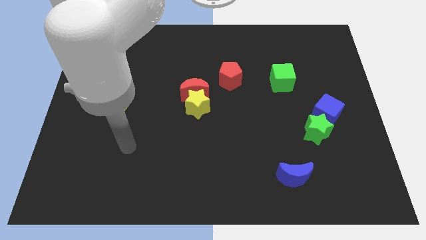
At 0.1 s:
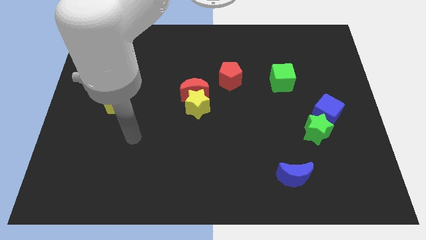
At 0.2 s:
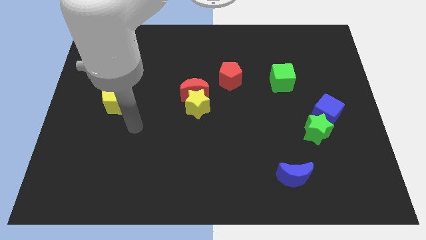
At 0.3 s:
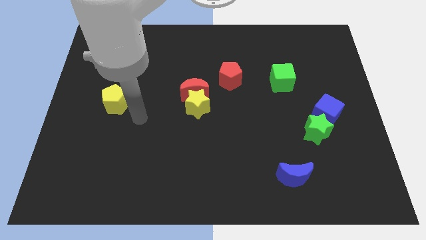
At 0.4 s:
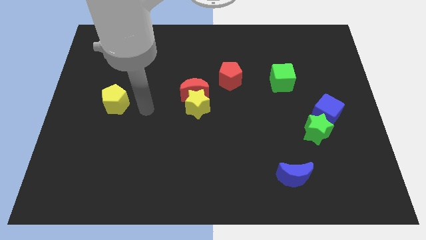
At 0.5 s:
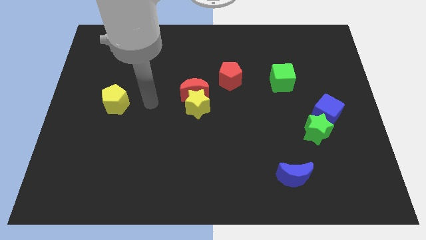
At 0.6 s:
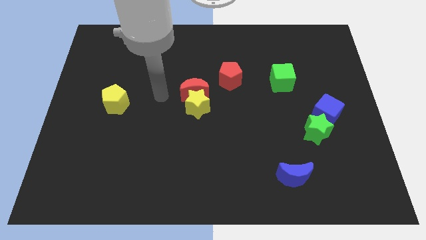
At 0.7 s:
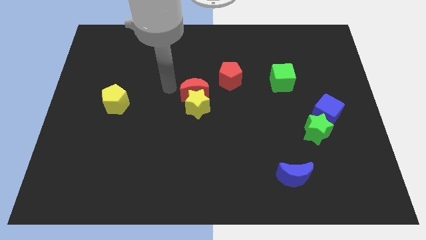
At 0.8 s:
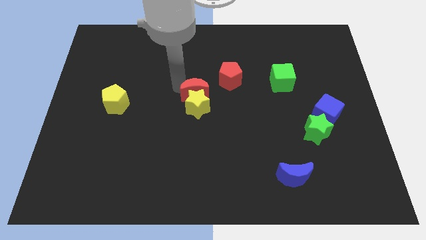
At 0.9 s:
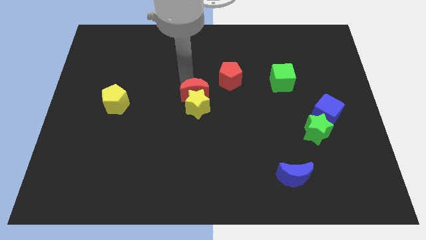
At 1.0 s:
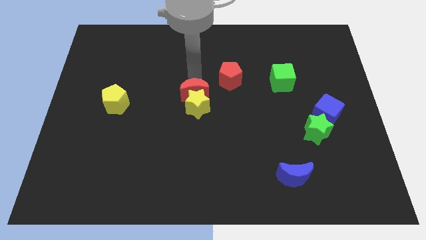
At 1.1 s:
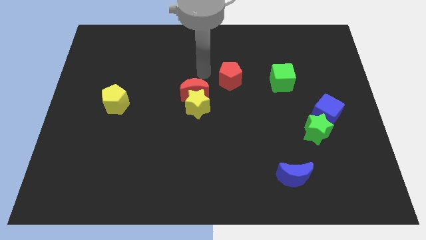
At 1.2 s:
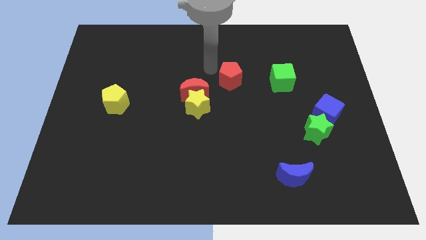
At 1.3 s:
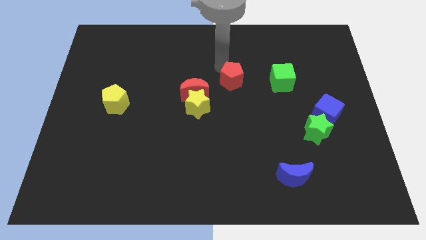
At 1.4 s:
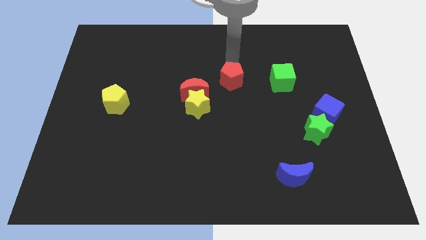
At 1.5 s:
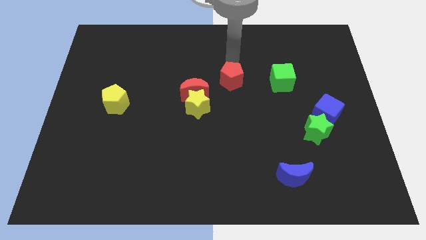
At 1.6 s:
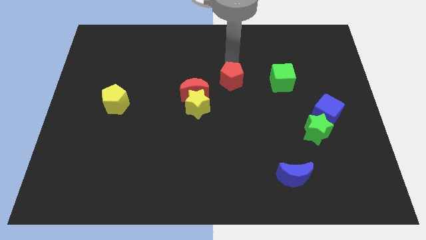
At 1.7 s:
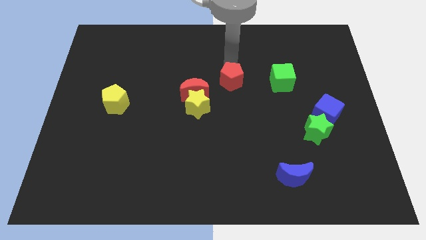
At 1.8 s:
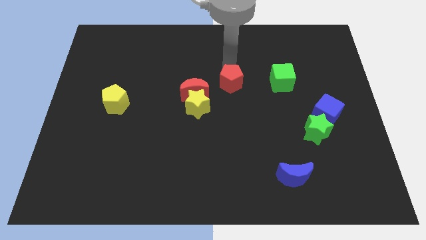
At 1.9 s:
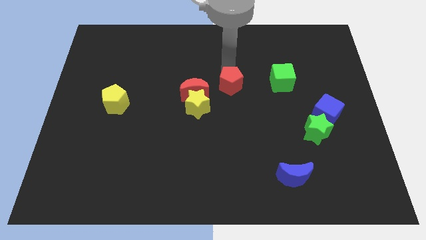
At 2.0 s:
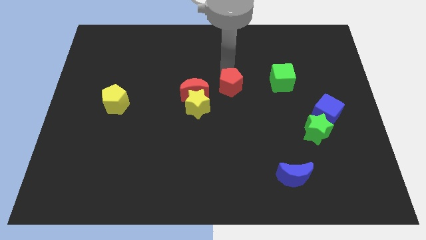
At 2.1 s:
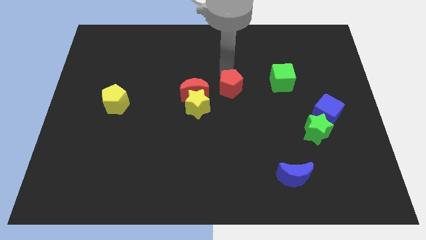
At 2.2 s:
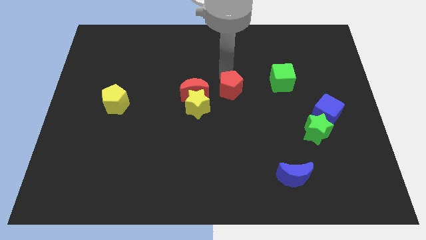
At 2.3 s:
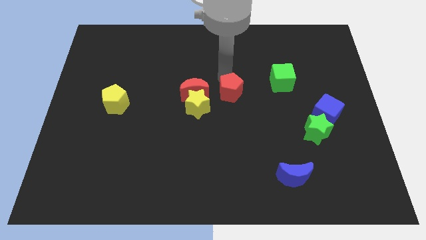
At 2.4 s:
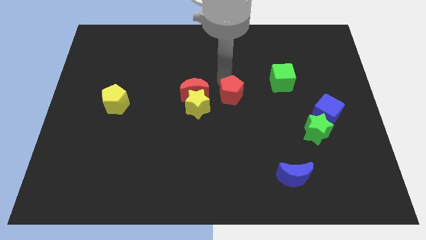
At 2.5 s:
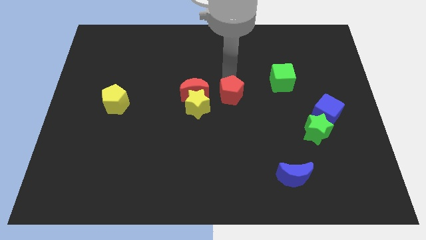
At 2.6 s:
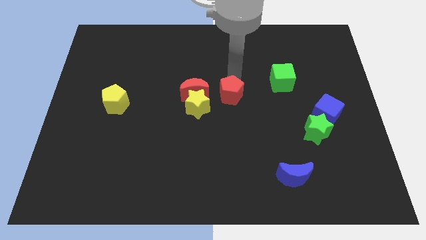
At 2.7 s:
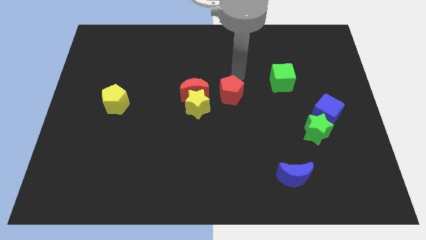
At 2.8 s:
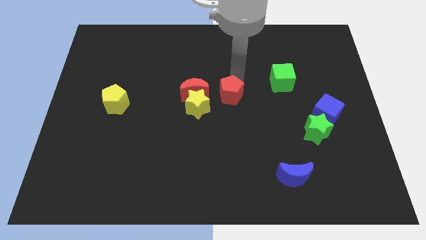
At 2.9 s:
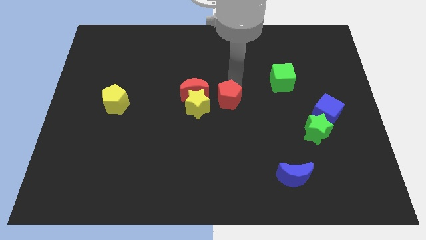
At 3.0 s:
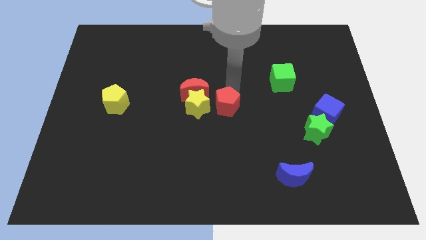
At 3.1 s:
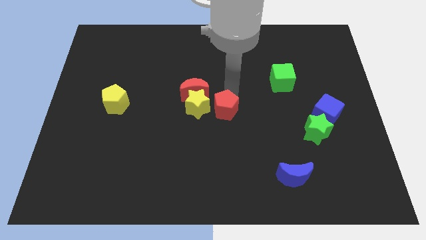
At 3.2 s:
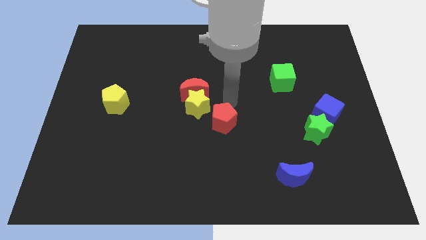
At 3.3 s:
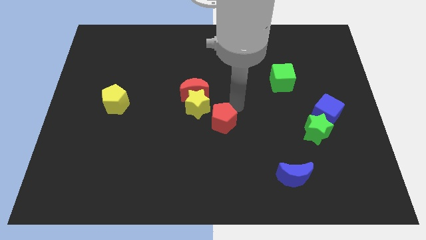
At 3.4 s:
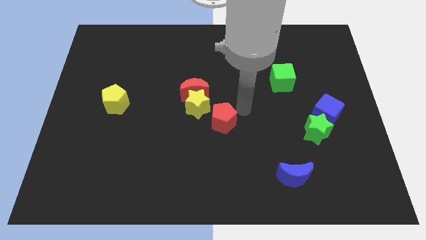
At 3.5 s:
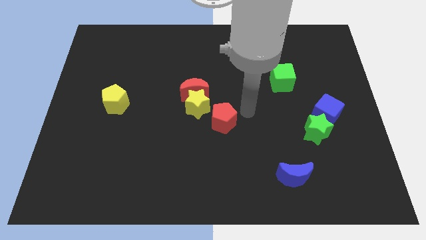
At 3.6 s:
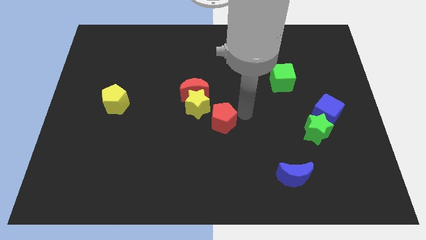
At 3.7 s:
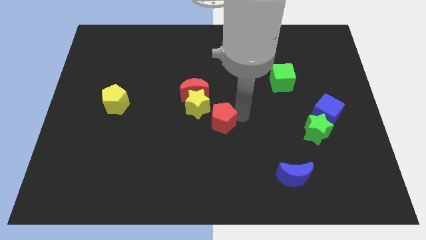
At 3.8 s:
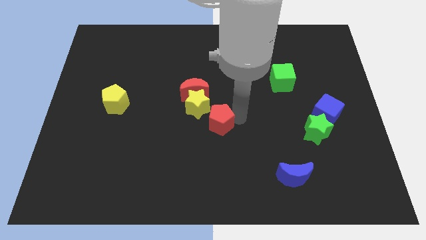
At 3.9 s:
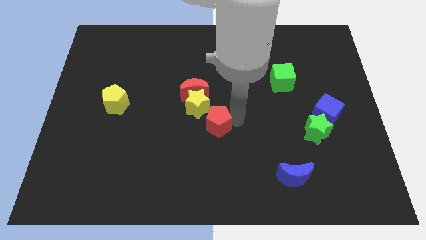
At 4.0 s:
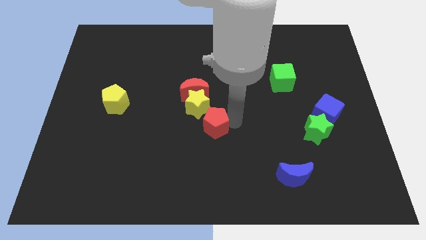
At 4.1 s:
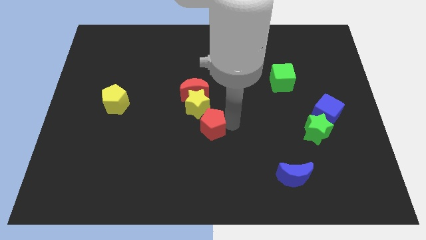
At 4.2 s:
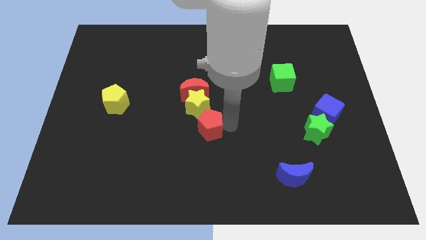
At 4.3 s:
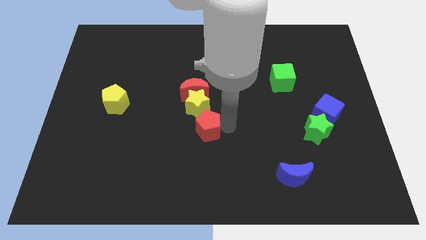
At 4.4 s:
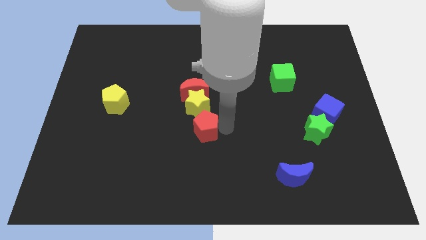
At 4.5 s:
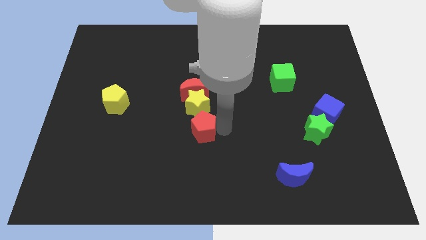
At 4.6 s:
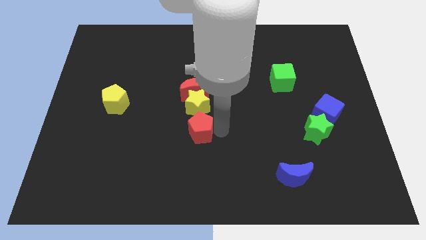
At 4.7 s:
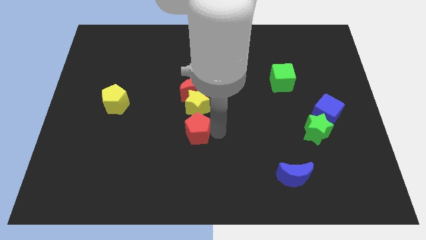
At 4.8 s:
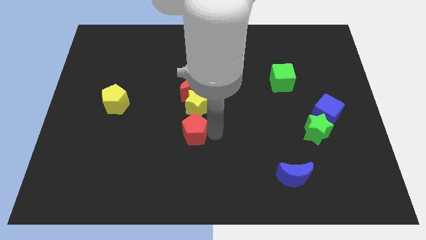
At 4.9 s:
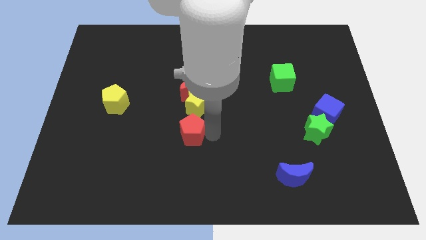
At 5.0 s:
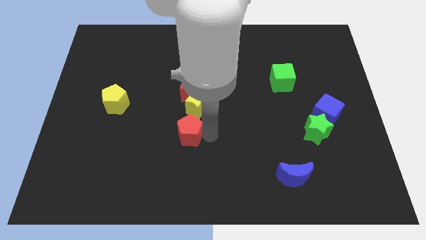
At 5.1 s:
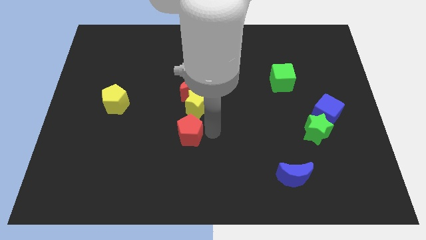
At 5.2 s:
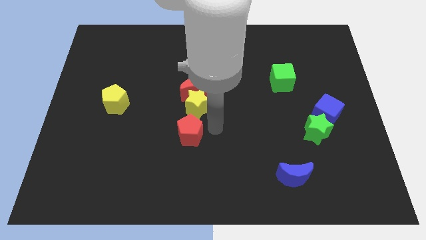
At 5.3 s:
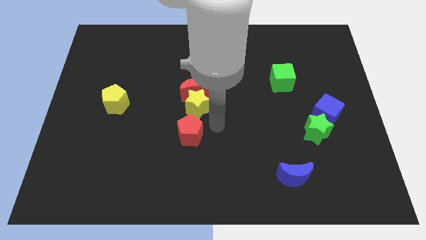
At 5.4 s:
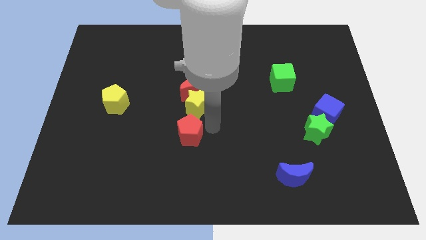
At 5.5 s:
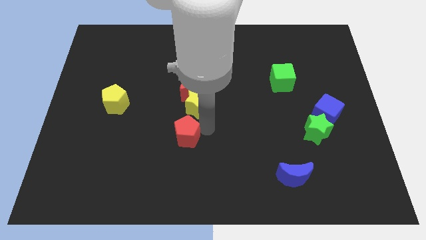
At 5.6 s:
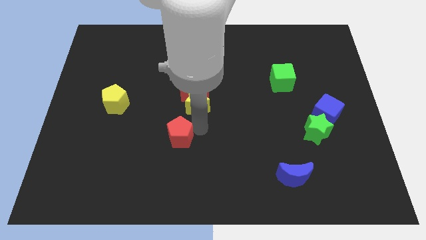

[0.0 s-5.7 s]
push the red pentagon downwards and left

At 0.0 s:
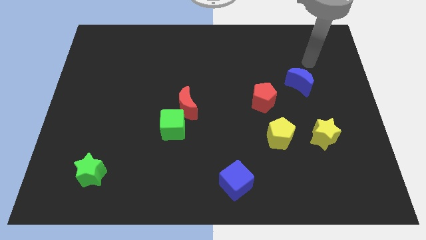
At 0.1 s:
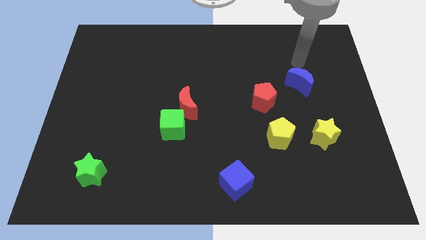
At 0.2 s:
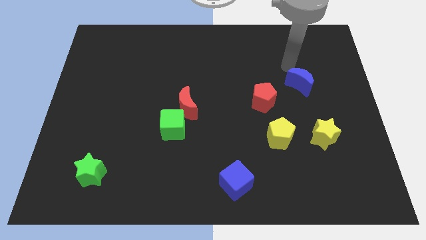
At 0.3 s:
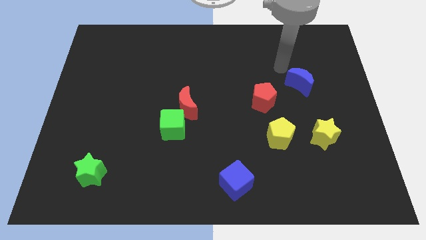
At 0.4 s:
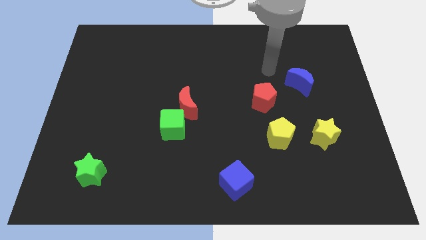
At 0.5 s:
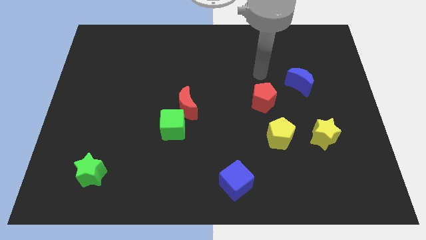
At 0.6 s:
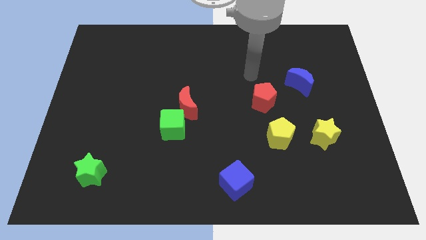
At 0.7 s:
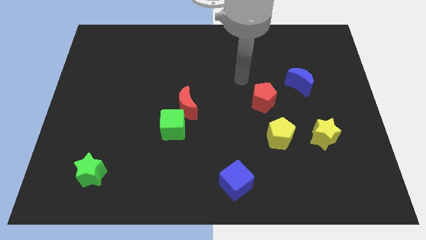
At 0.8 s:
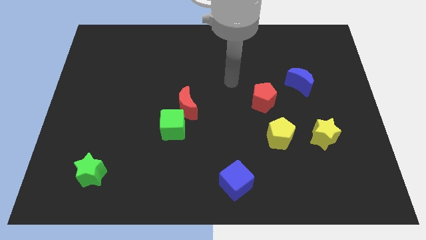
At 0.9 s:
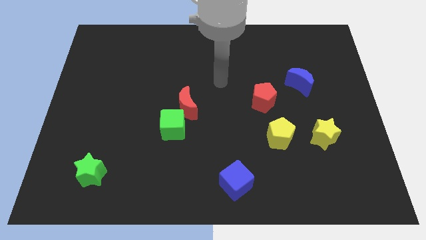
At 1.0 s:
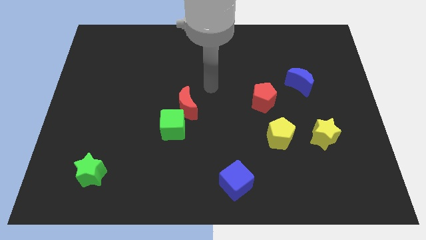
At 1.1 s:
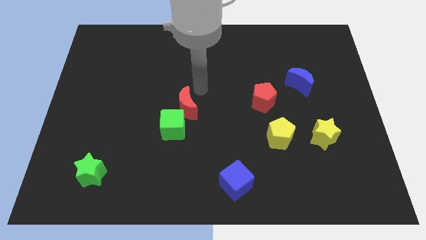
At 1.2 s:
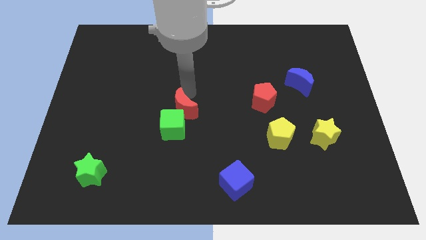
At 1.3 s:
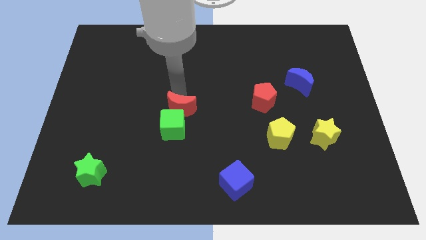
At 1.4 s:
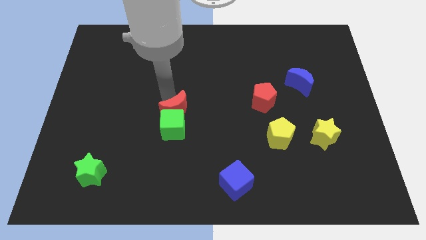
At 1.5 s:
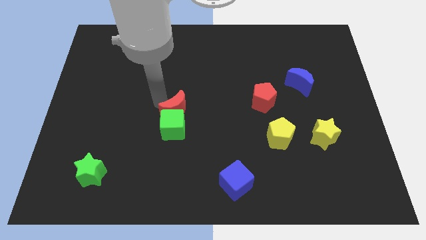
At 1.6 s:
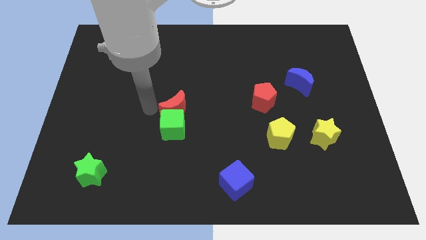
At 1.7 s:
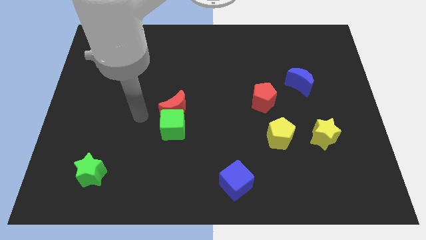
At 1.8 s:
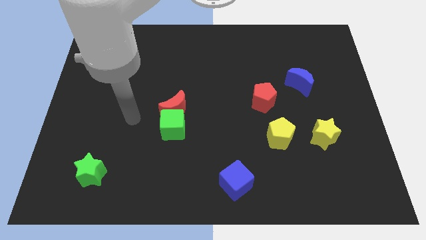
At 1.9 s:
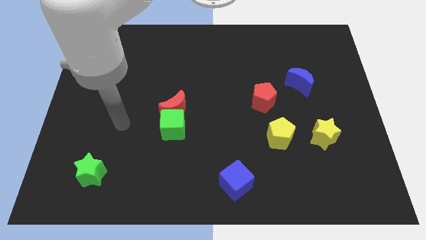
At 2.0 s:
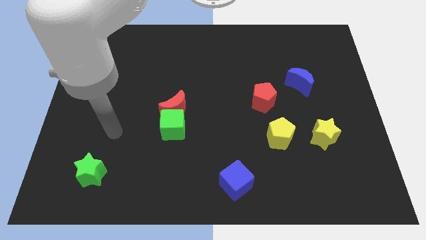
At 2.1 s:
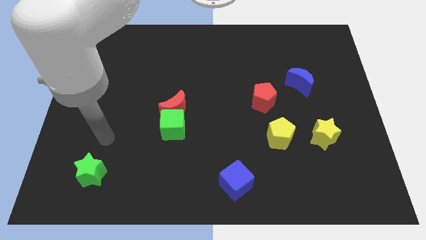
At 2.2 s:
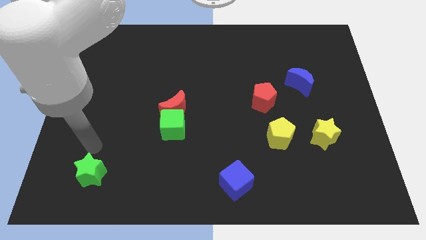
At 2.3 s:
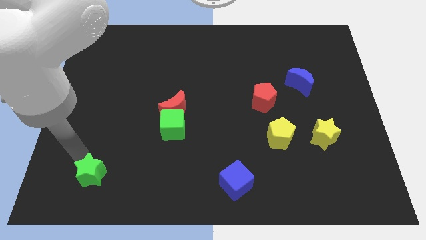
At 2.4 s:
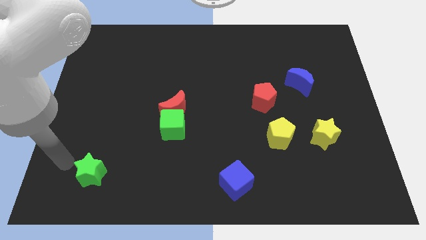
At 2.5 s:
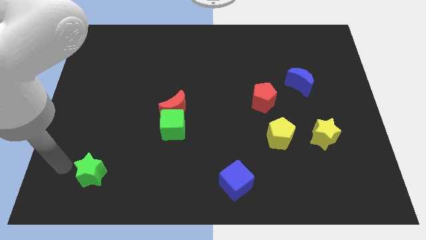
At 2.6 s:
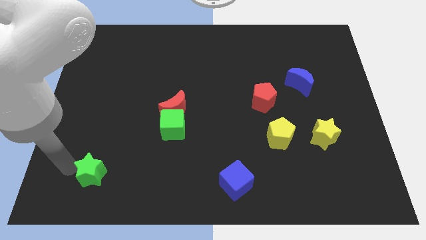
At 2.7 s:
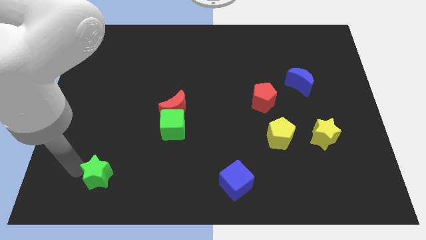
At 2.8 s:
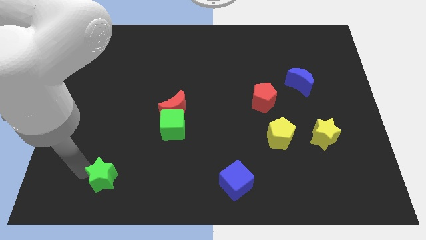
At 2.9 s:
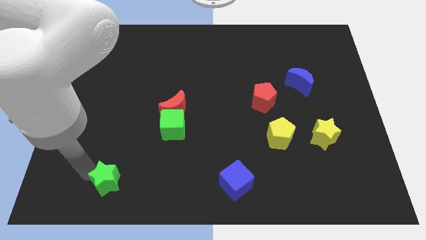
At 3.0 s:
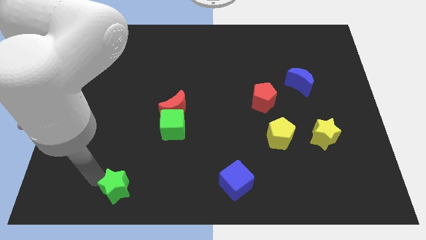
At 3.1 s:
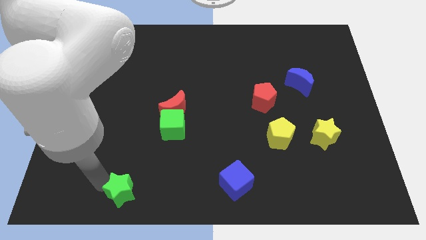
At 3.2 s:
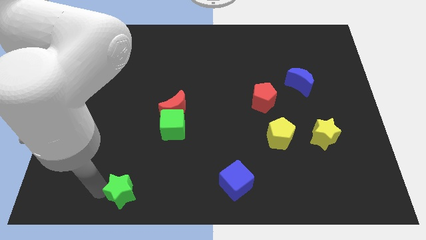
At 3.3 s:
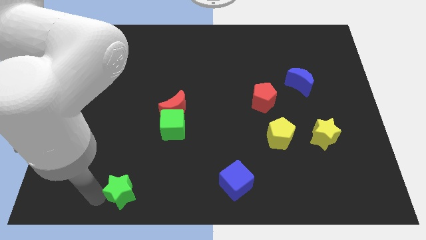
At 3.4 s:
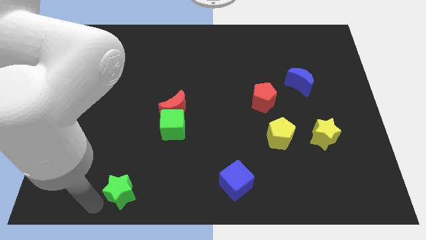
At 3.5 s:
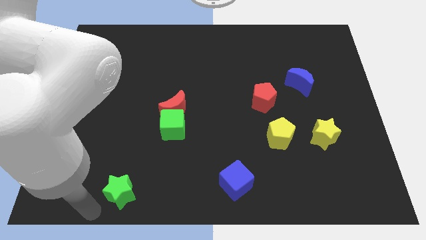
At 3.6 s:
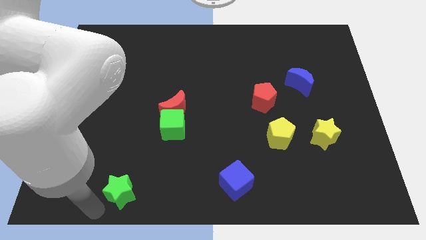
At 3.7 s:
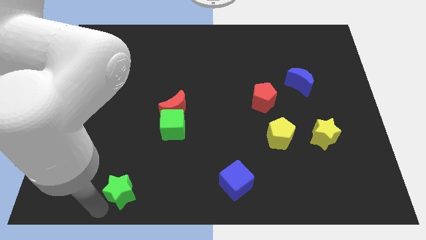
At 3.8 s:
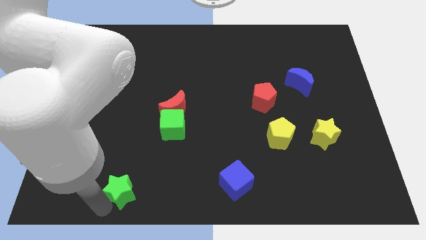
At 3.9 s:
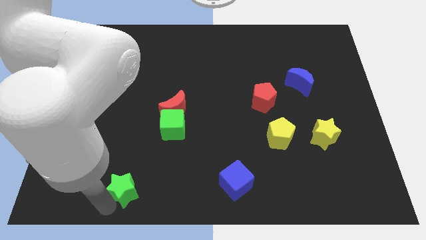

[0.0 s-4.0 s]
push the green star right a little bit
